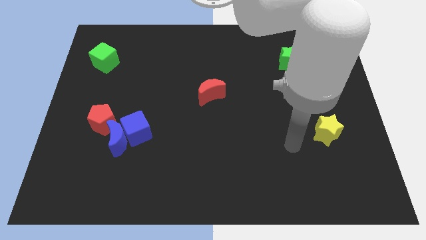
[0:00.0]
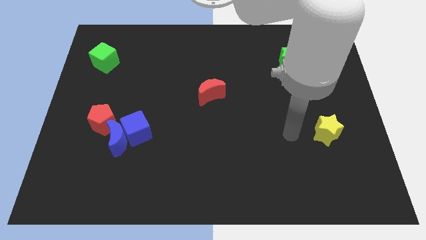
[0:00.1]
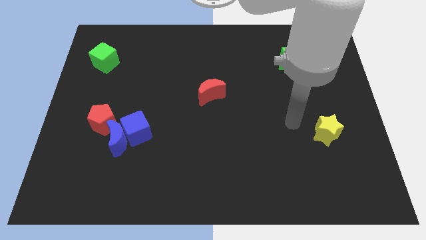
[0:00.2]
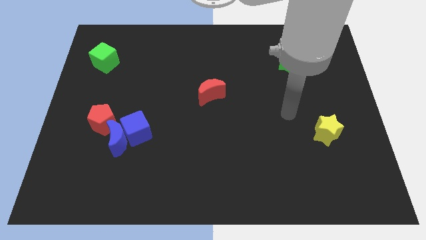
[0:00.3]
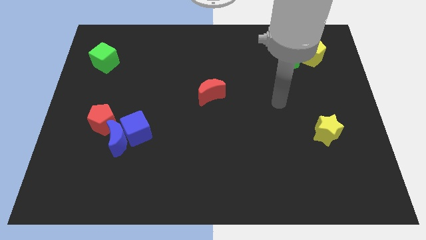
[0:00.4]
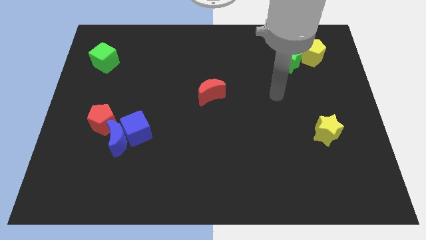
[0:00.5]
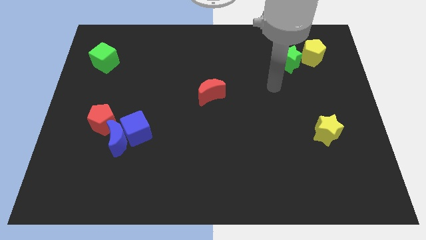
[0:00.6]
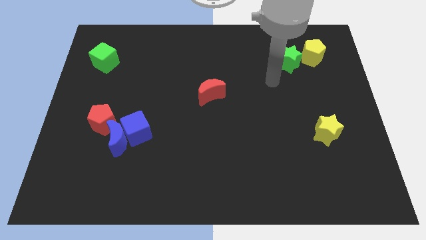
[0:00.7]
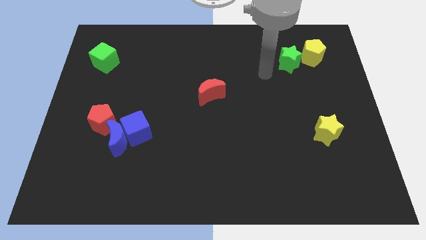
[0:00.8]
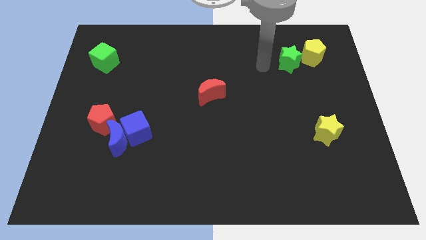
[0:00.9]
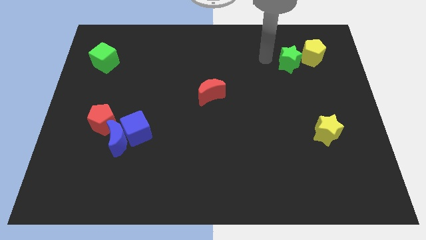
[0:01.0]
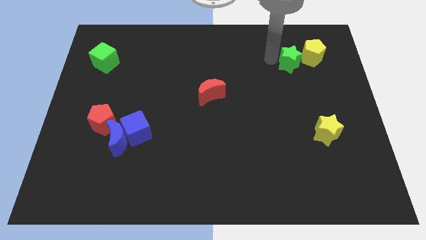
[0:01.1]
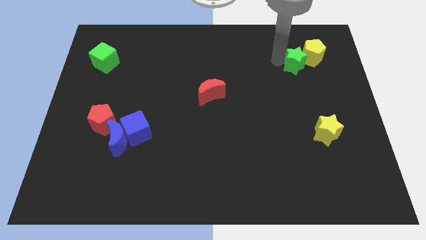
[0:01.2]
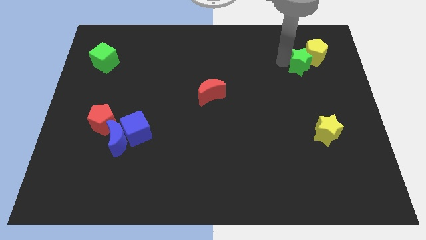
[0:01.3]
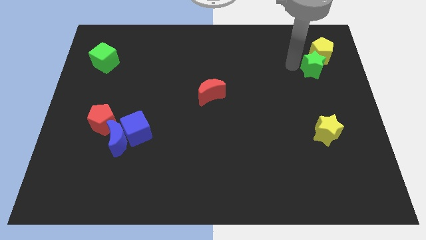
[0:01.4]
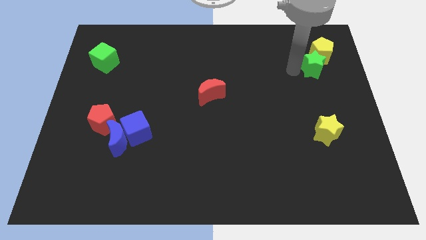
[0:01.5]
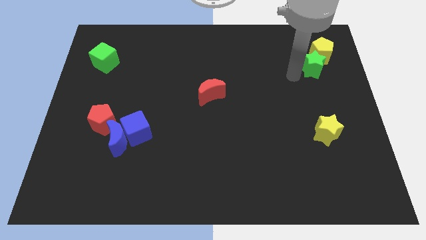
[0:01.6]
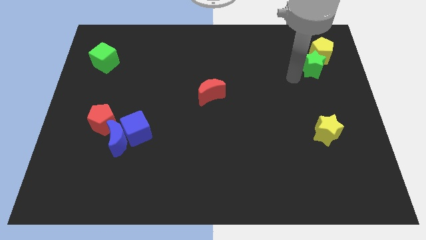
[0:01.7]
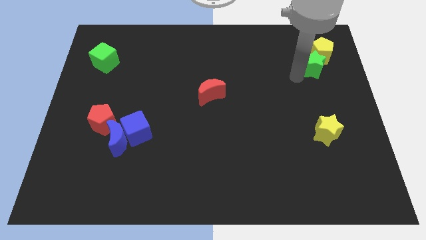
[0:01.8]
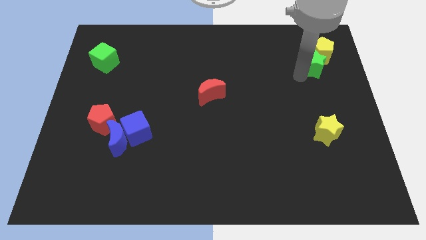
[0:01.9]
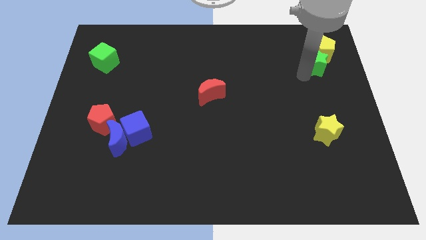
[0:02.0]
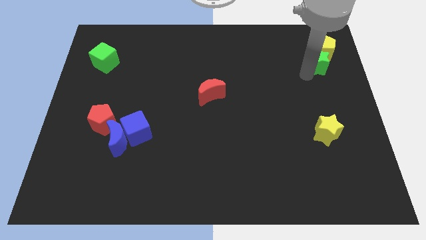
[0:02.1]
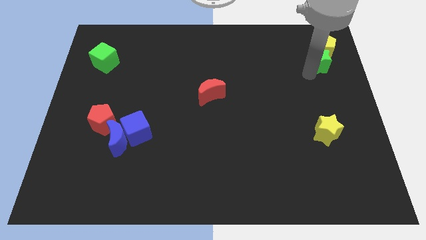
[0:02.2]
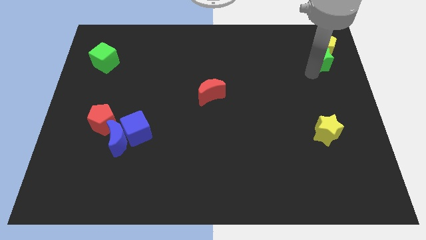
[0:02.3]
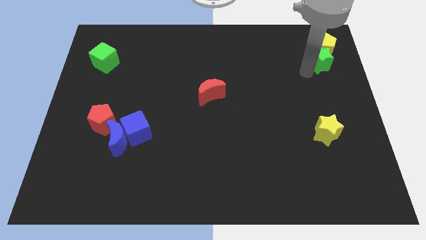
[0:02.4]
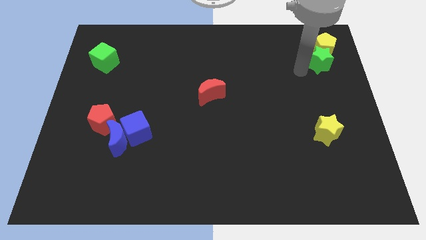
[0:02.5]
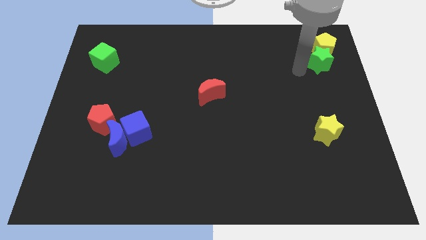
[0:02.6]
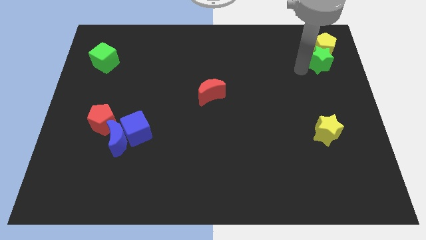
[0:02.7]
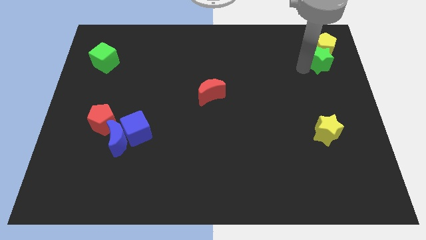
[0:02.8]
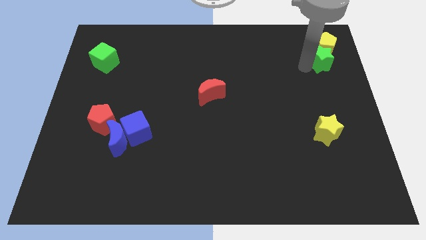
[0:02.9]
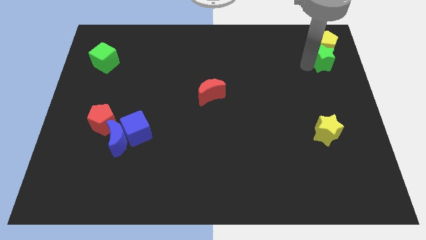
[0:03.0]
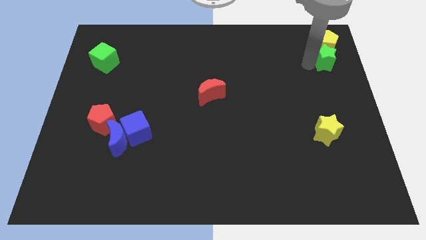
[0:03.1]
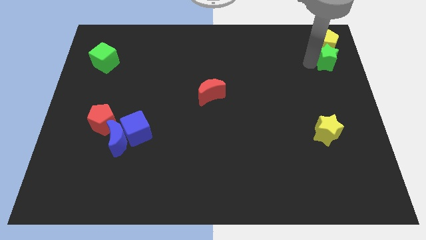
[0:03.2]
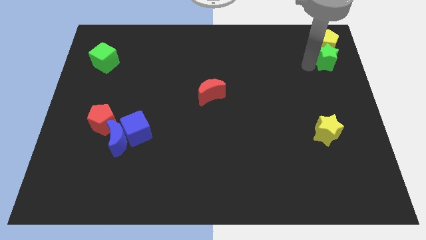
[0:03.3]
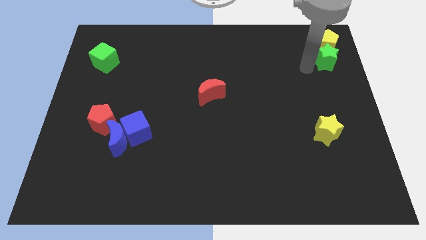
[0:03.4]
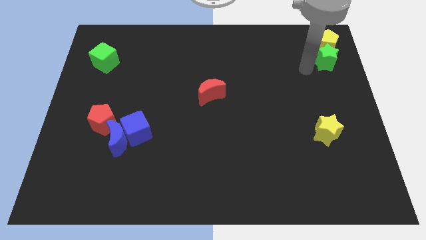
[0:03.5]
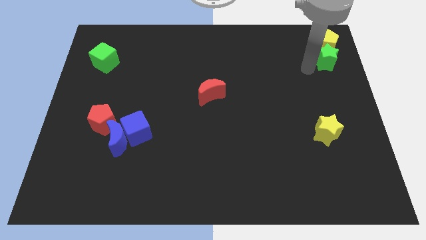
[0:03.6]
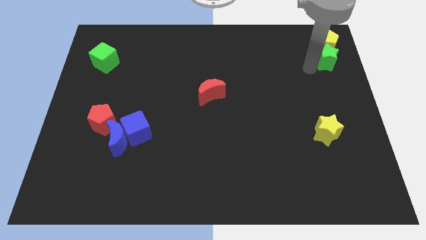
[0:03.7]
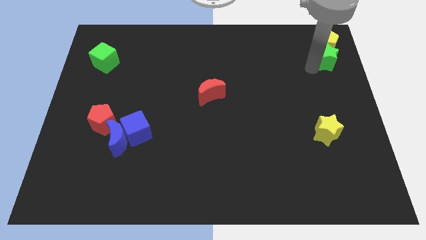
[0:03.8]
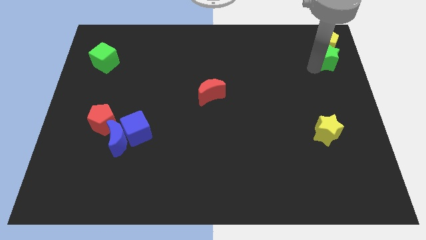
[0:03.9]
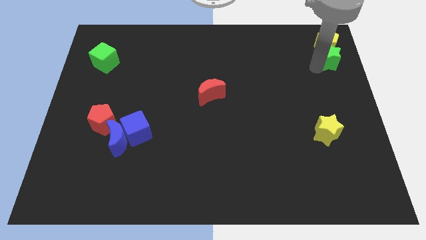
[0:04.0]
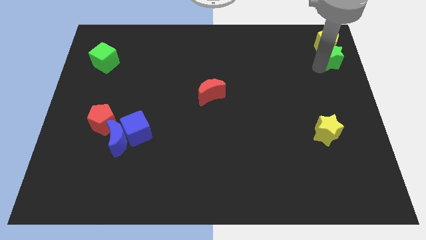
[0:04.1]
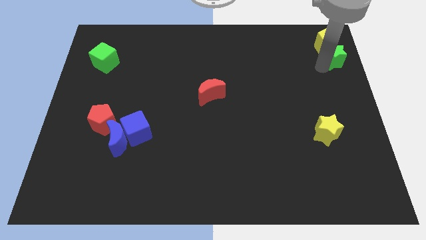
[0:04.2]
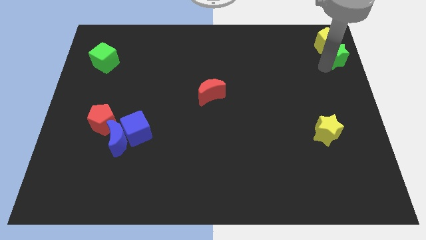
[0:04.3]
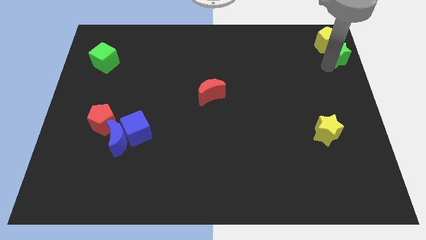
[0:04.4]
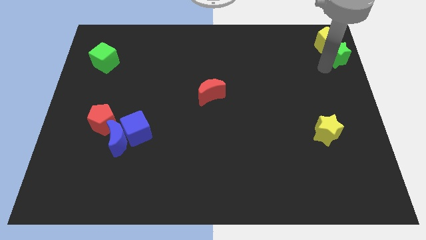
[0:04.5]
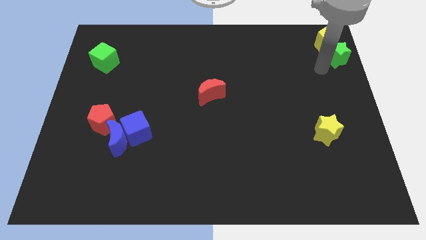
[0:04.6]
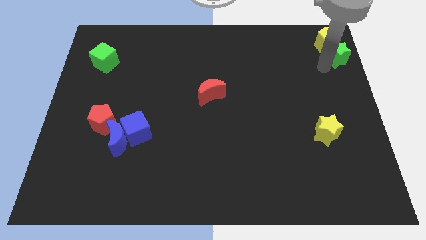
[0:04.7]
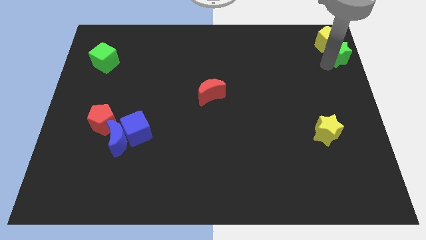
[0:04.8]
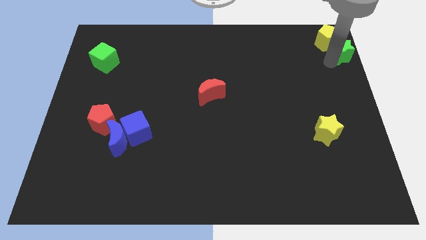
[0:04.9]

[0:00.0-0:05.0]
move the green star to the top right
